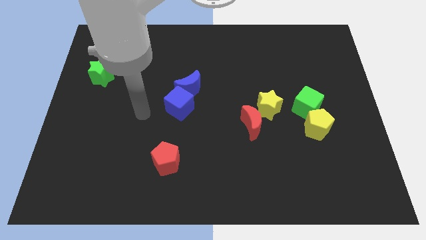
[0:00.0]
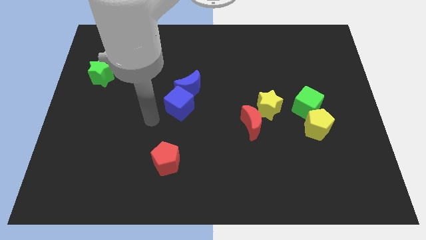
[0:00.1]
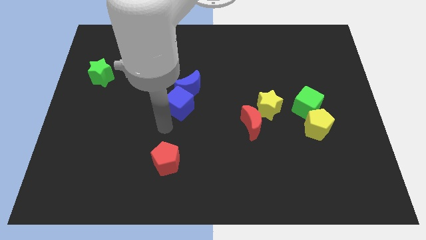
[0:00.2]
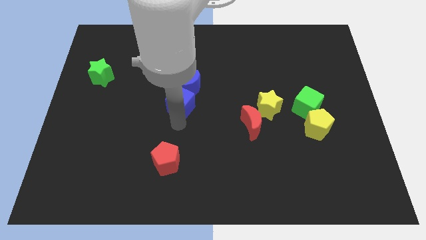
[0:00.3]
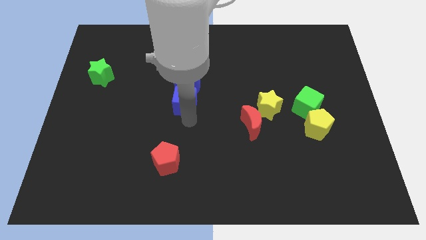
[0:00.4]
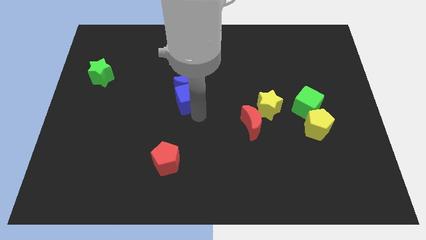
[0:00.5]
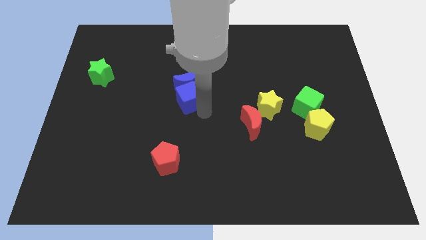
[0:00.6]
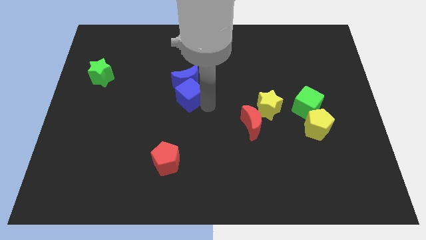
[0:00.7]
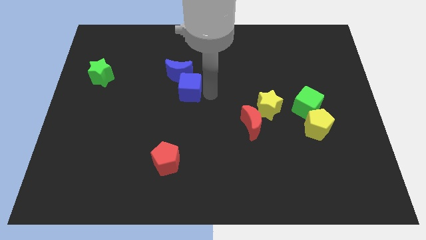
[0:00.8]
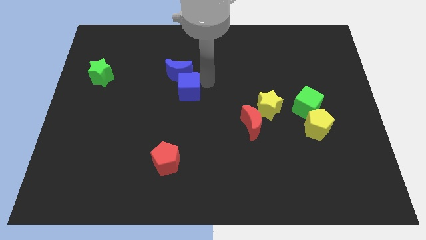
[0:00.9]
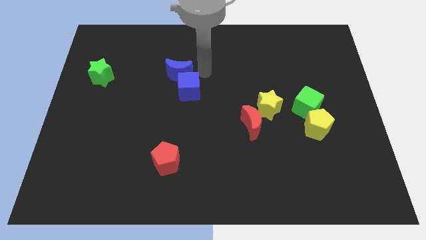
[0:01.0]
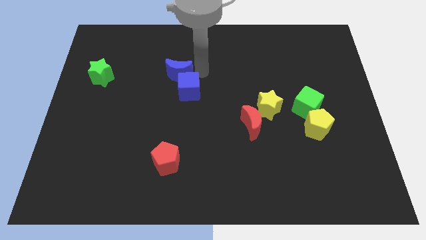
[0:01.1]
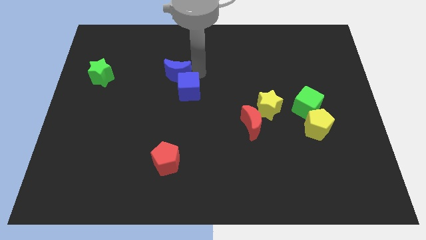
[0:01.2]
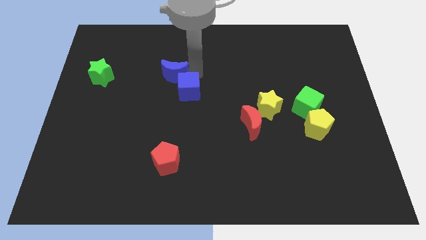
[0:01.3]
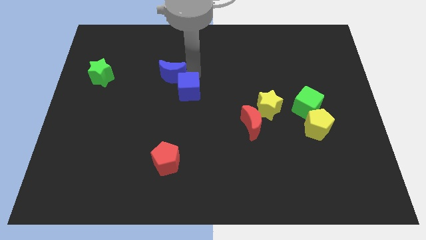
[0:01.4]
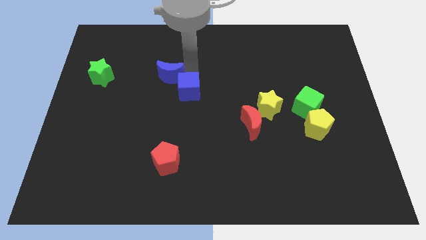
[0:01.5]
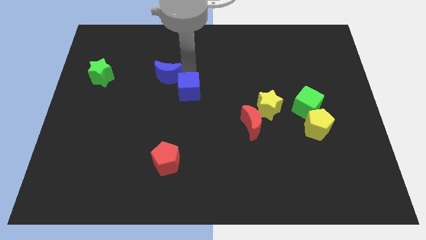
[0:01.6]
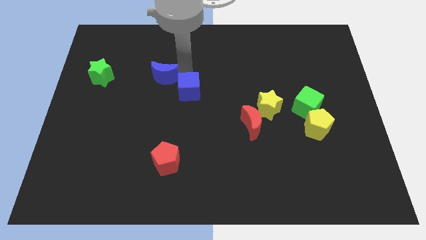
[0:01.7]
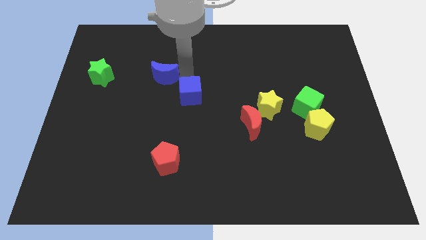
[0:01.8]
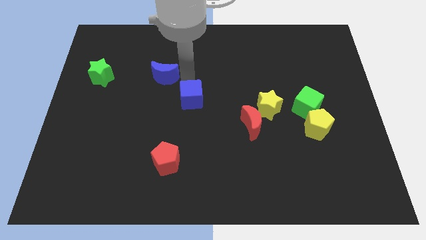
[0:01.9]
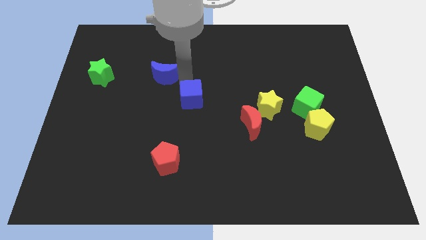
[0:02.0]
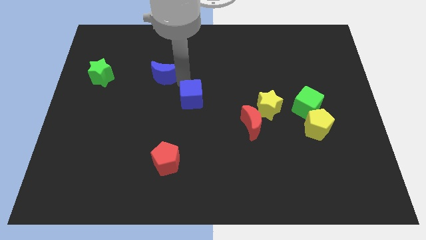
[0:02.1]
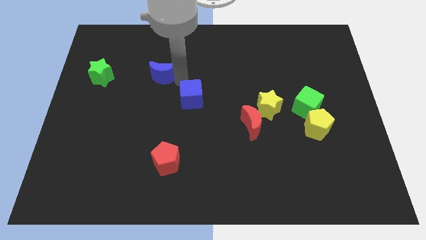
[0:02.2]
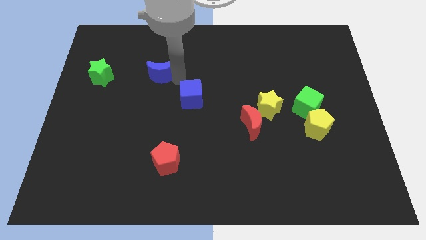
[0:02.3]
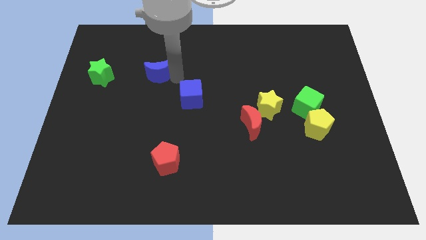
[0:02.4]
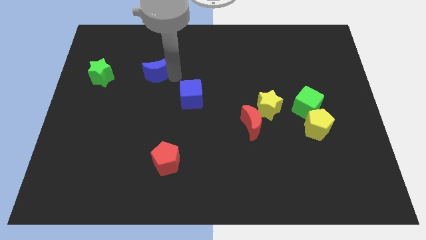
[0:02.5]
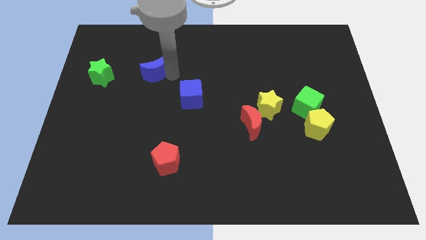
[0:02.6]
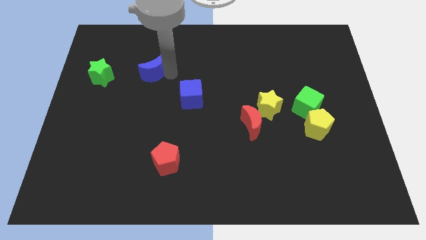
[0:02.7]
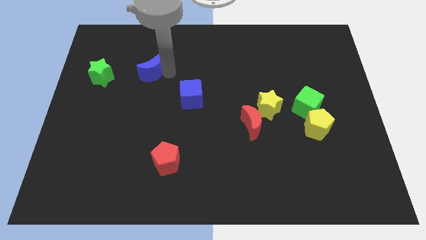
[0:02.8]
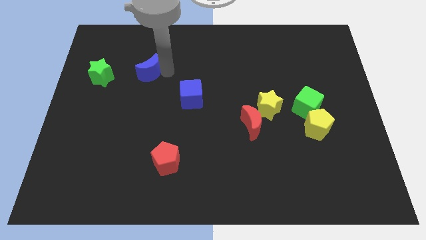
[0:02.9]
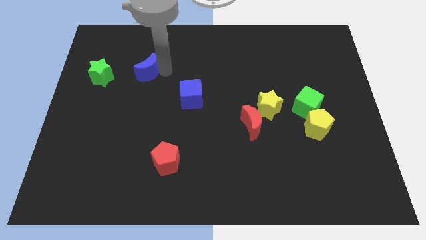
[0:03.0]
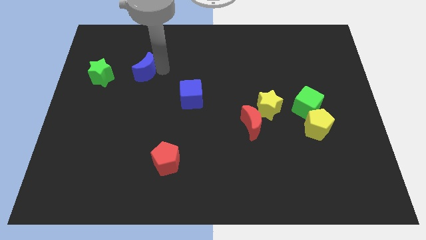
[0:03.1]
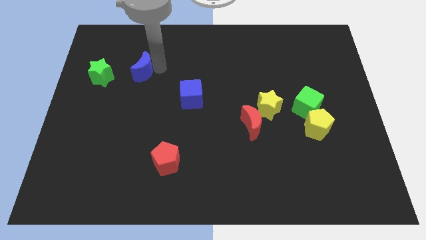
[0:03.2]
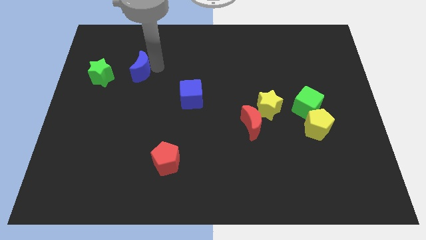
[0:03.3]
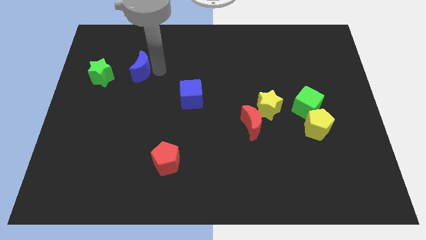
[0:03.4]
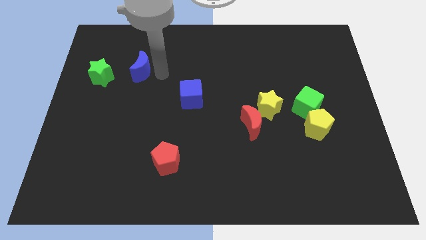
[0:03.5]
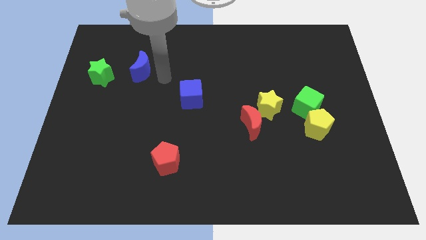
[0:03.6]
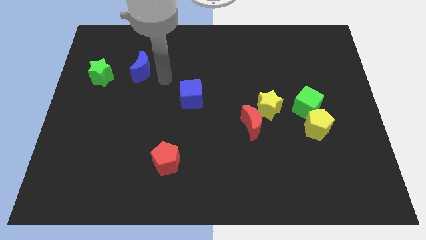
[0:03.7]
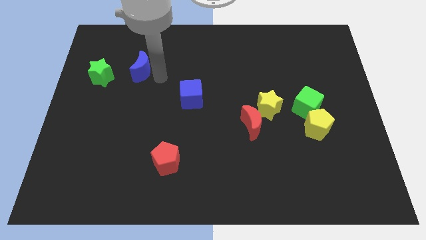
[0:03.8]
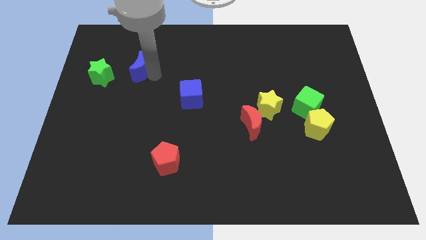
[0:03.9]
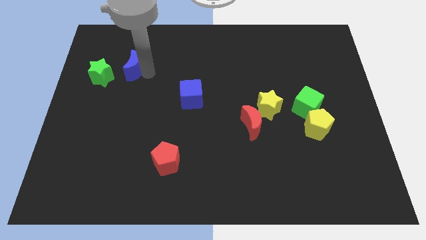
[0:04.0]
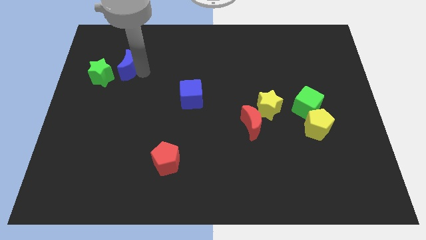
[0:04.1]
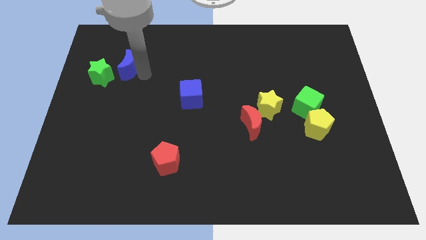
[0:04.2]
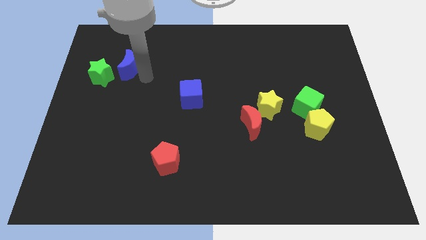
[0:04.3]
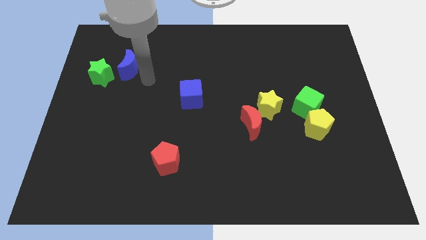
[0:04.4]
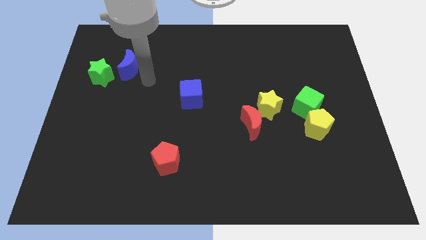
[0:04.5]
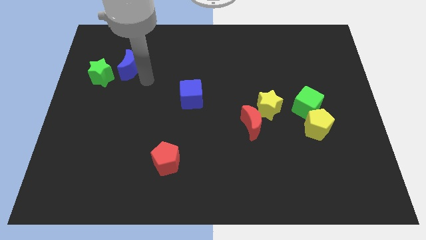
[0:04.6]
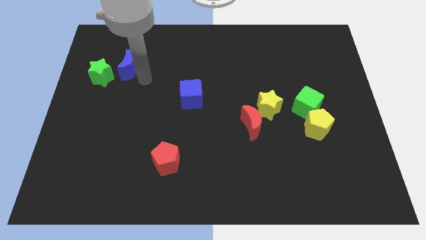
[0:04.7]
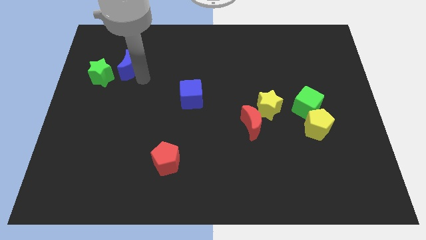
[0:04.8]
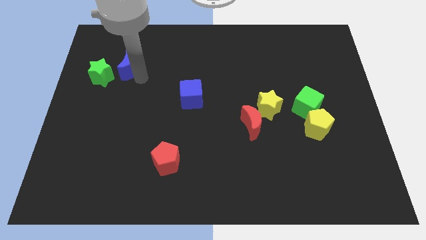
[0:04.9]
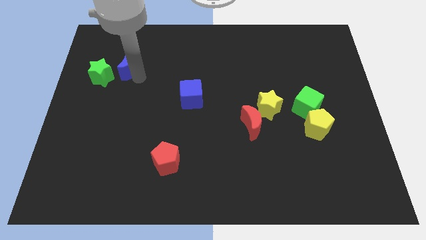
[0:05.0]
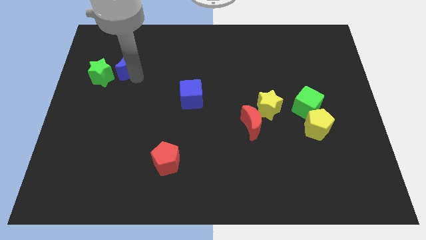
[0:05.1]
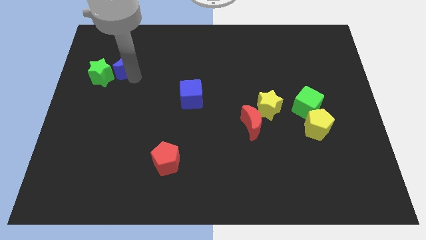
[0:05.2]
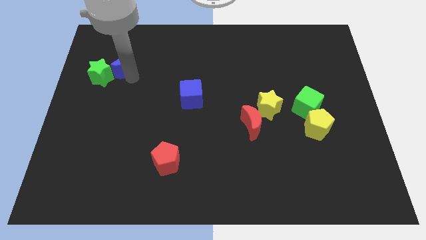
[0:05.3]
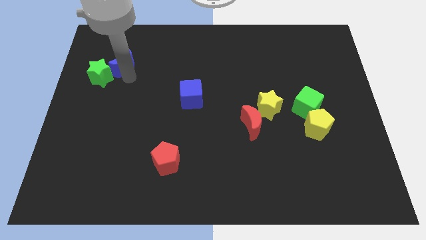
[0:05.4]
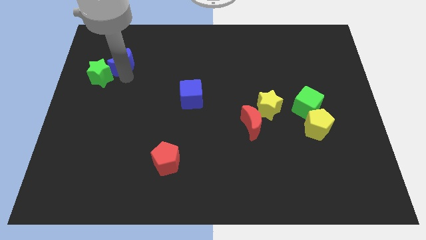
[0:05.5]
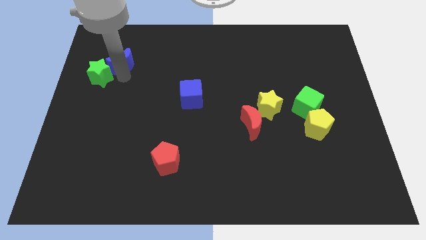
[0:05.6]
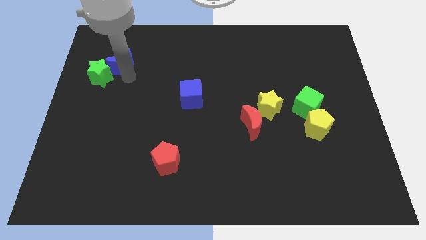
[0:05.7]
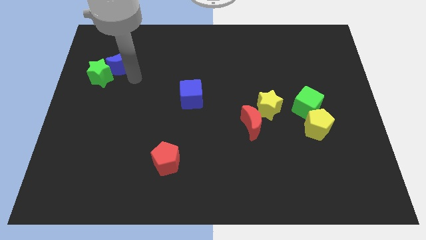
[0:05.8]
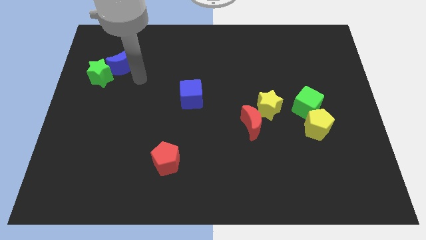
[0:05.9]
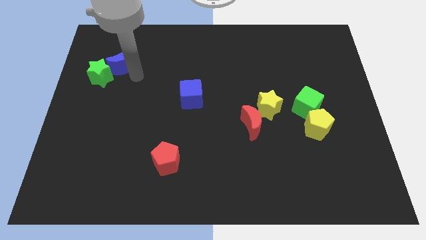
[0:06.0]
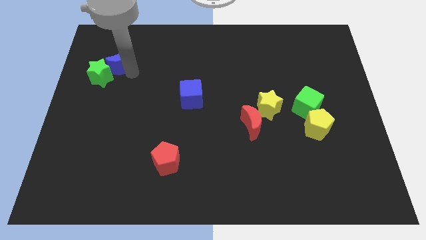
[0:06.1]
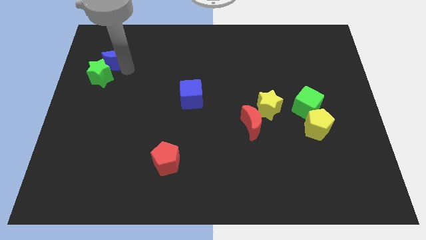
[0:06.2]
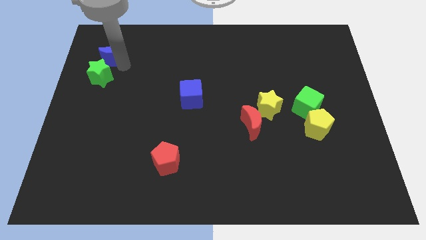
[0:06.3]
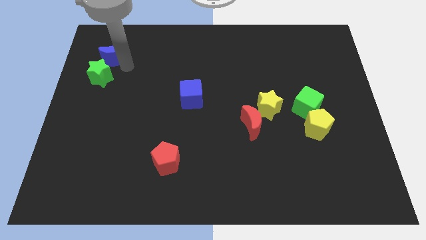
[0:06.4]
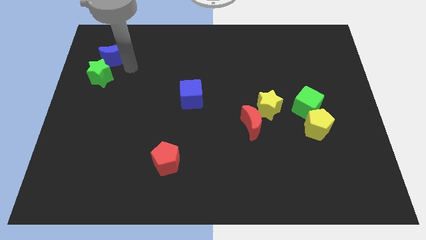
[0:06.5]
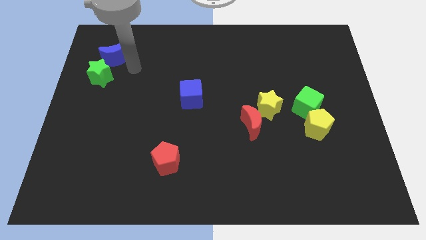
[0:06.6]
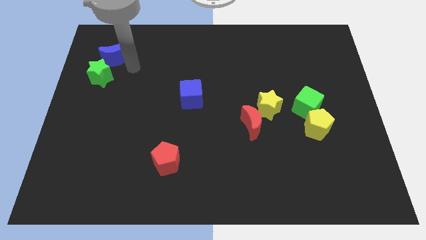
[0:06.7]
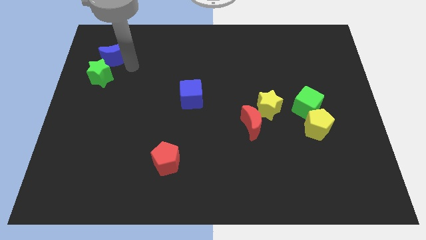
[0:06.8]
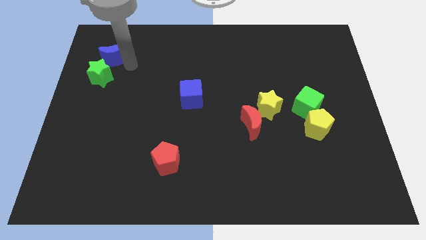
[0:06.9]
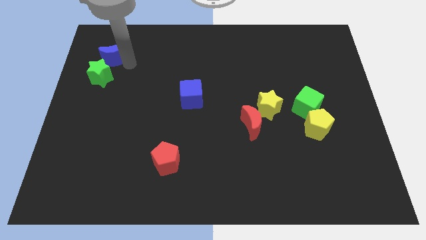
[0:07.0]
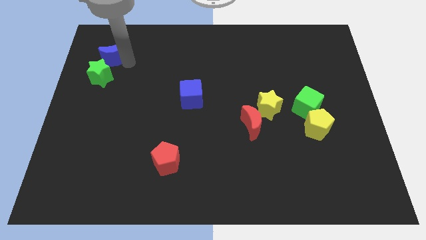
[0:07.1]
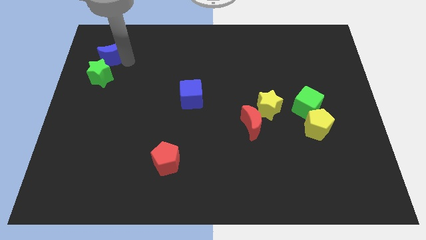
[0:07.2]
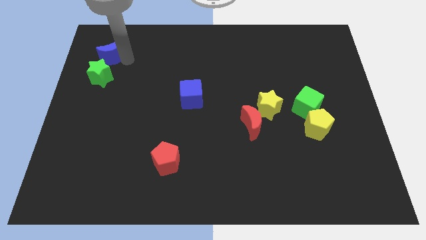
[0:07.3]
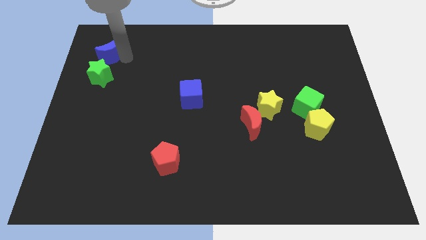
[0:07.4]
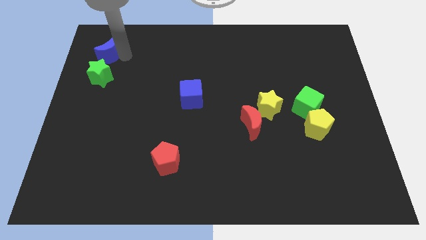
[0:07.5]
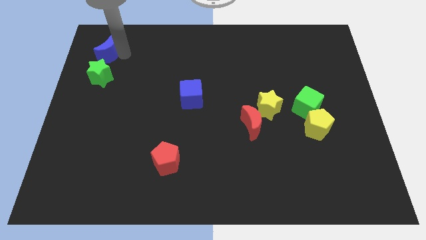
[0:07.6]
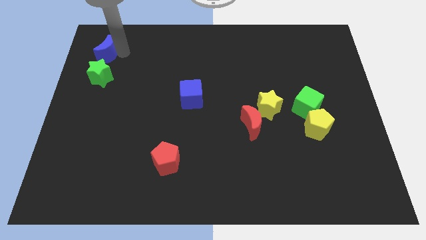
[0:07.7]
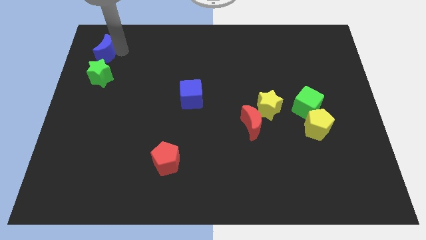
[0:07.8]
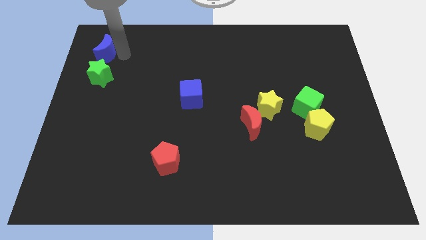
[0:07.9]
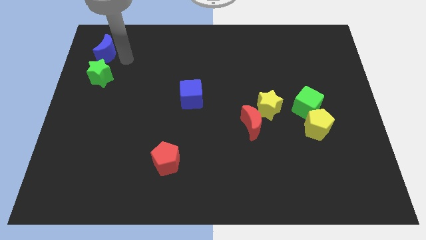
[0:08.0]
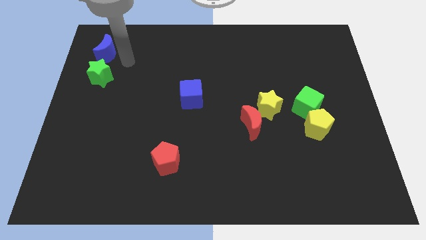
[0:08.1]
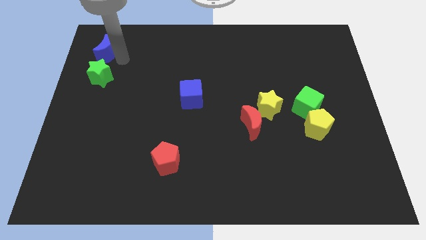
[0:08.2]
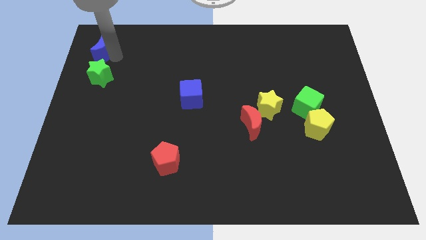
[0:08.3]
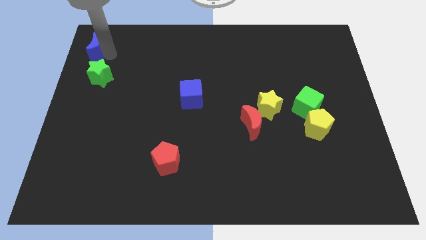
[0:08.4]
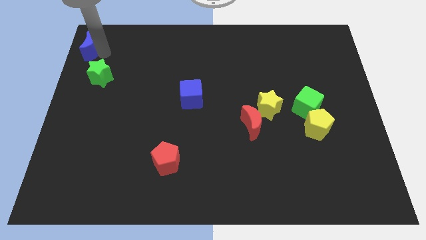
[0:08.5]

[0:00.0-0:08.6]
slide the blue moon to the top left of the board
